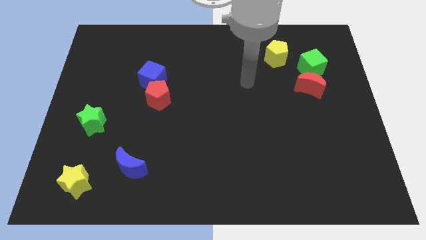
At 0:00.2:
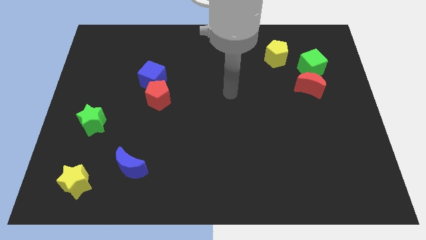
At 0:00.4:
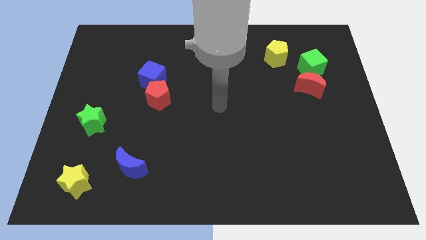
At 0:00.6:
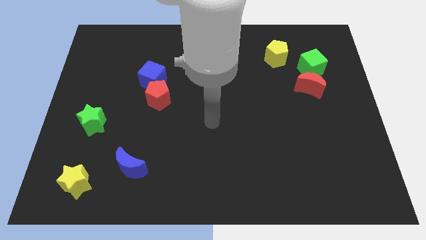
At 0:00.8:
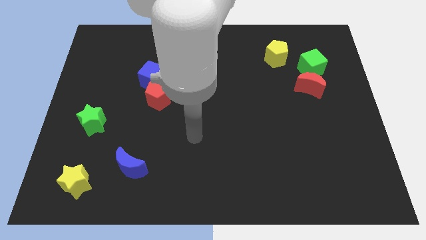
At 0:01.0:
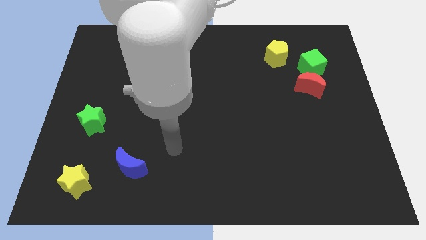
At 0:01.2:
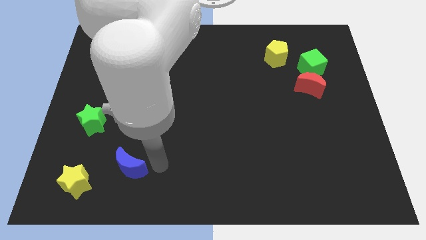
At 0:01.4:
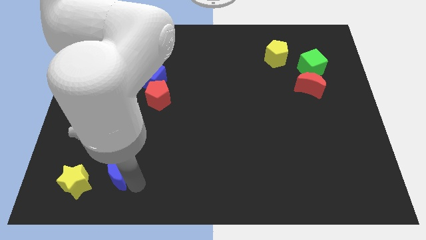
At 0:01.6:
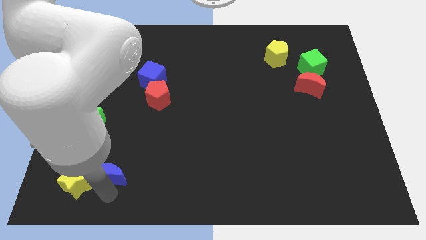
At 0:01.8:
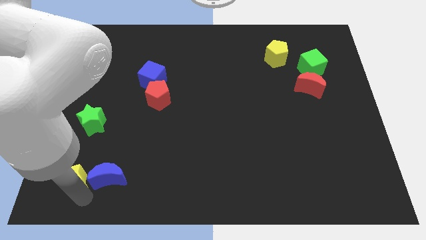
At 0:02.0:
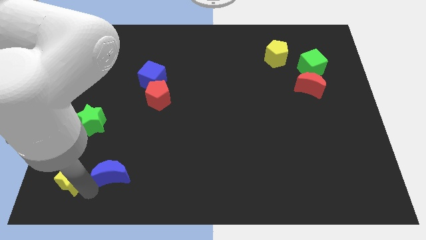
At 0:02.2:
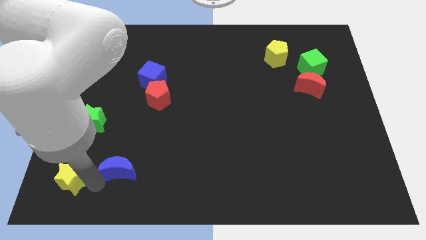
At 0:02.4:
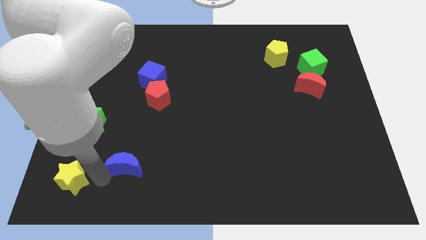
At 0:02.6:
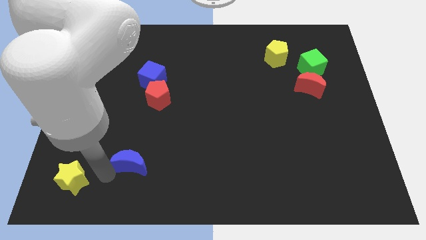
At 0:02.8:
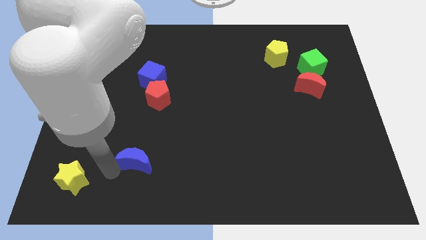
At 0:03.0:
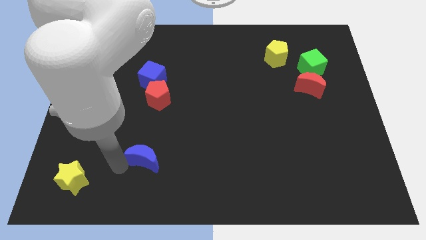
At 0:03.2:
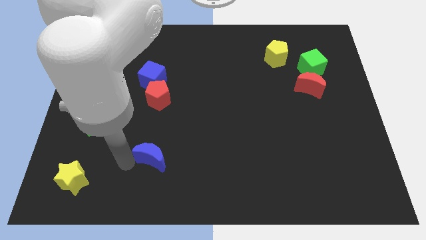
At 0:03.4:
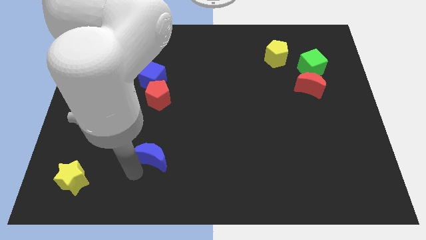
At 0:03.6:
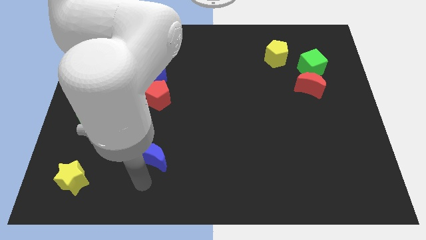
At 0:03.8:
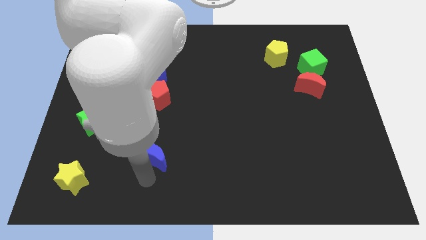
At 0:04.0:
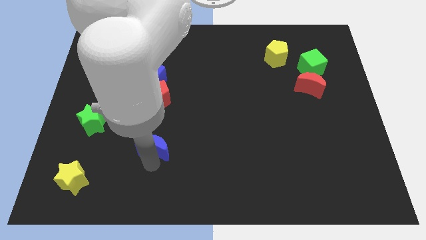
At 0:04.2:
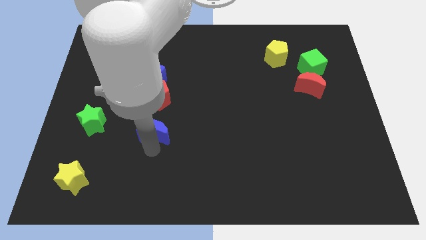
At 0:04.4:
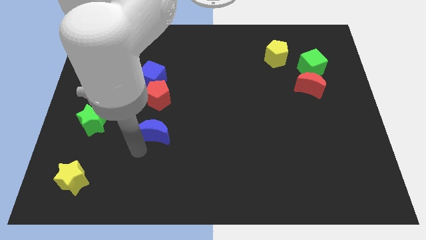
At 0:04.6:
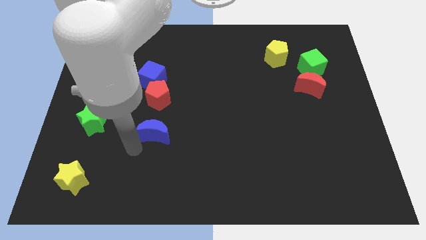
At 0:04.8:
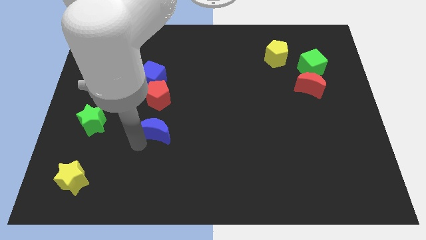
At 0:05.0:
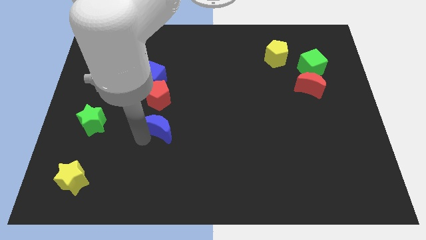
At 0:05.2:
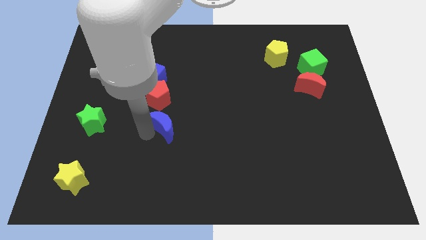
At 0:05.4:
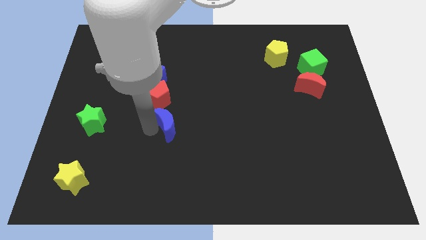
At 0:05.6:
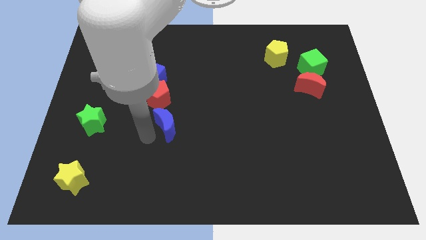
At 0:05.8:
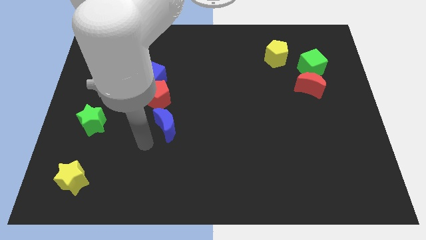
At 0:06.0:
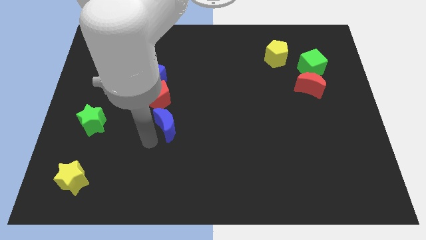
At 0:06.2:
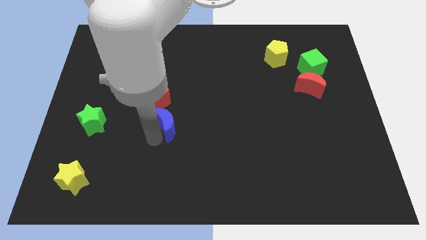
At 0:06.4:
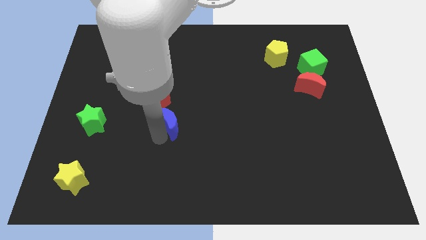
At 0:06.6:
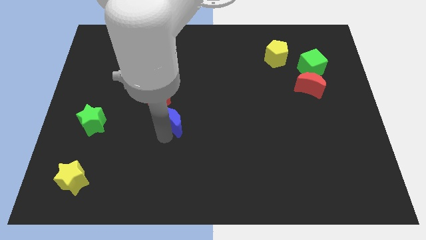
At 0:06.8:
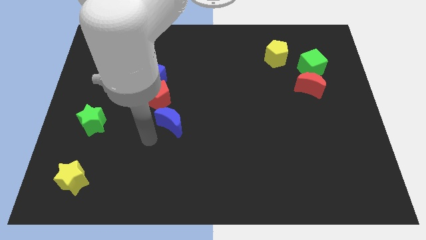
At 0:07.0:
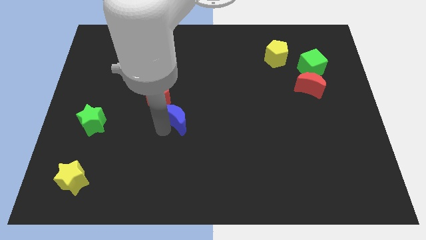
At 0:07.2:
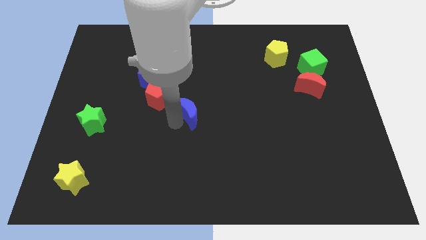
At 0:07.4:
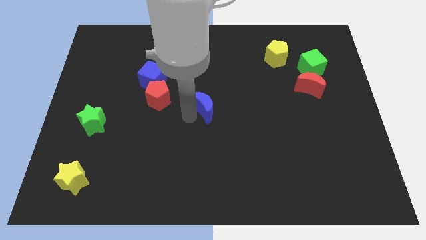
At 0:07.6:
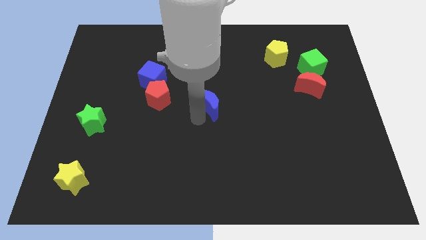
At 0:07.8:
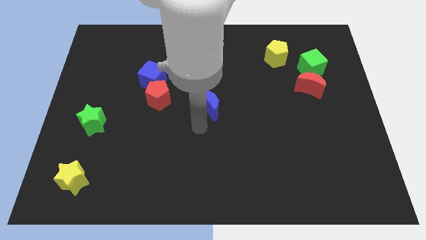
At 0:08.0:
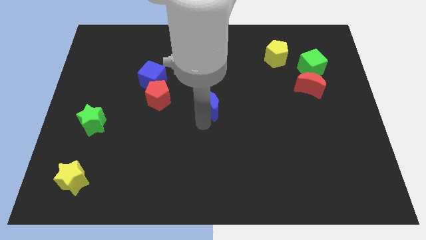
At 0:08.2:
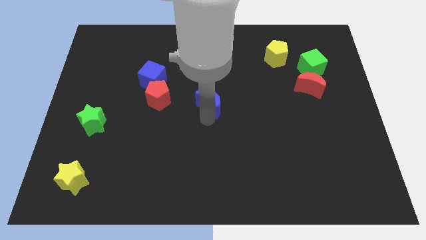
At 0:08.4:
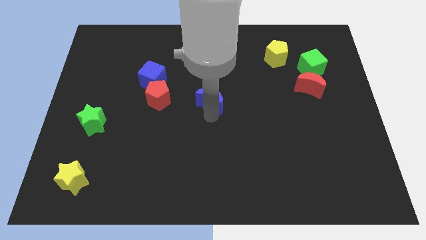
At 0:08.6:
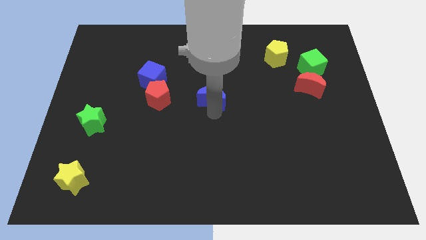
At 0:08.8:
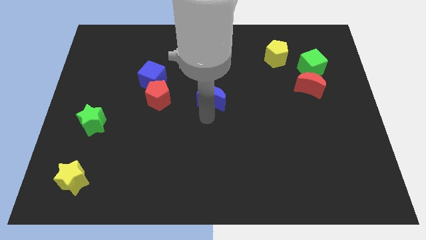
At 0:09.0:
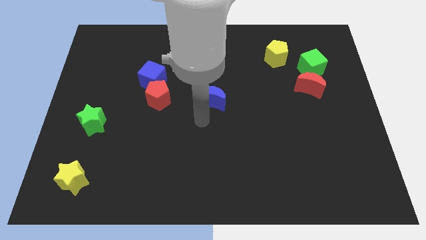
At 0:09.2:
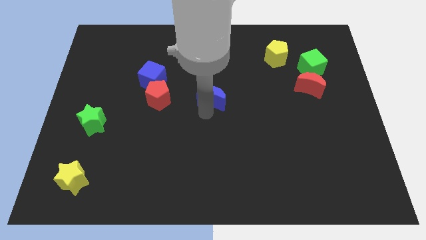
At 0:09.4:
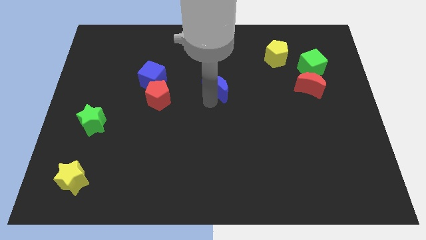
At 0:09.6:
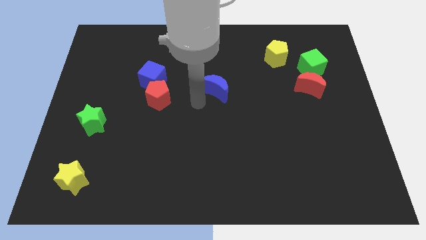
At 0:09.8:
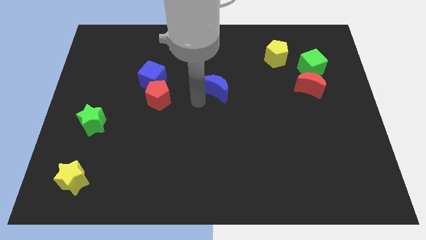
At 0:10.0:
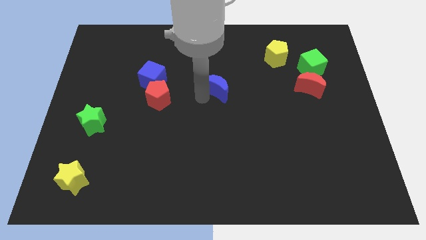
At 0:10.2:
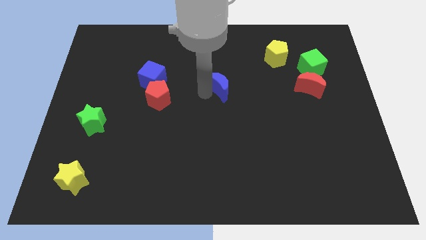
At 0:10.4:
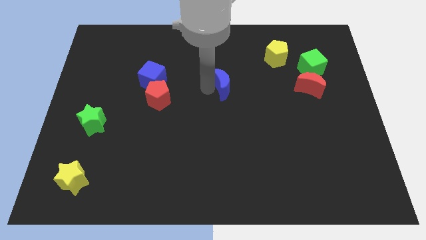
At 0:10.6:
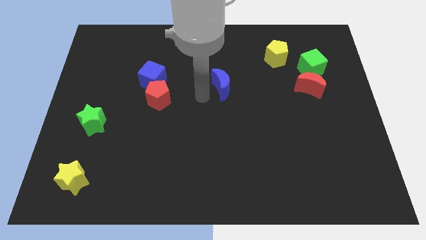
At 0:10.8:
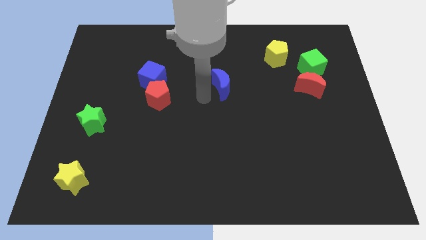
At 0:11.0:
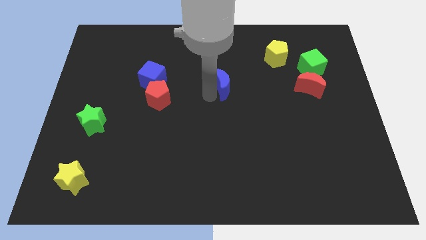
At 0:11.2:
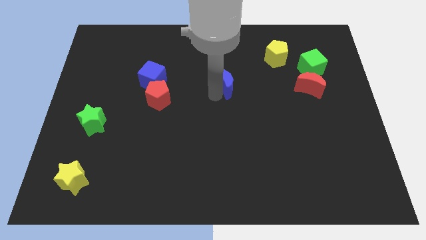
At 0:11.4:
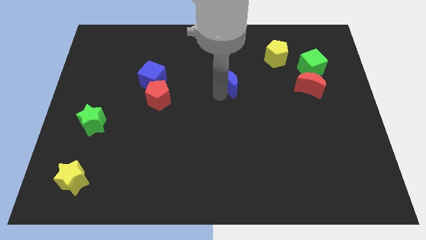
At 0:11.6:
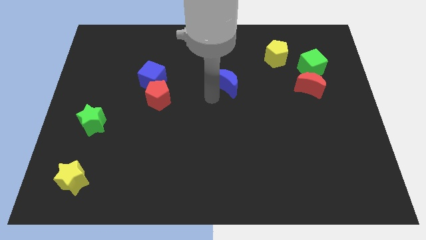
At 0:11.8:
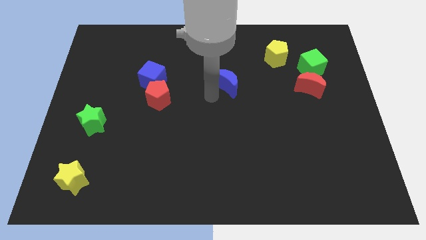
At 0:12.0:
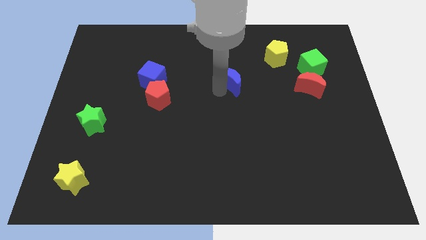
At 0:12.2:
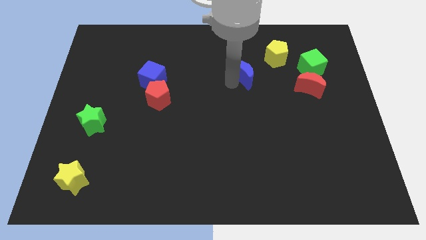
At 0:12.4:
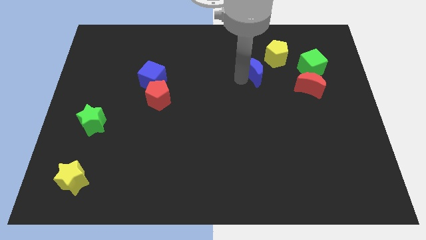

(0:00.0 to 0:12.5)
push the blue moon to the left side of the green cube

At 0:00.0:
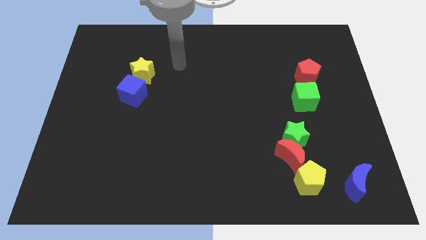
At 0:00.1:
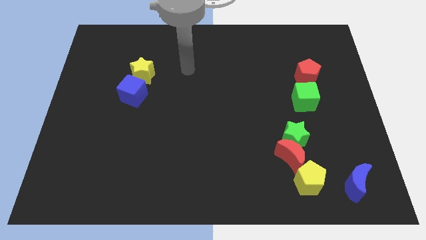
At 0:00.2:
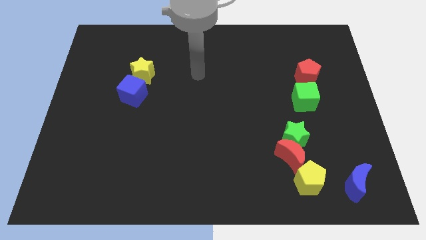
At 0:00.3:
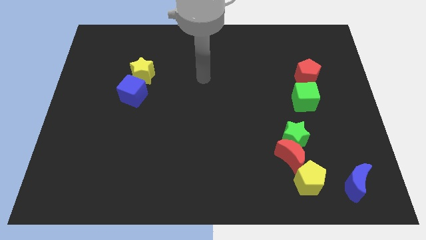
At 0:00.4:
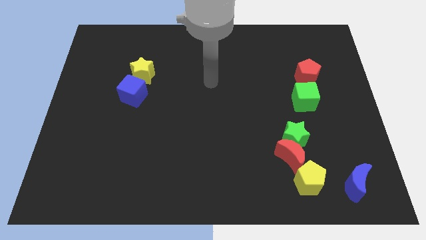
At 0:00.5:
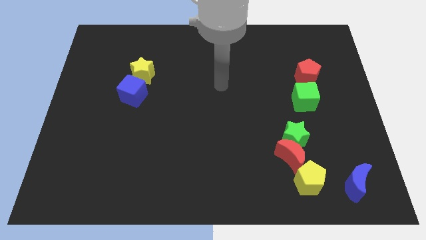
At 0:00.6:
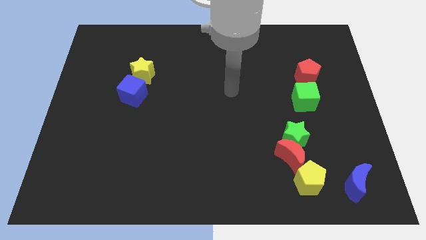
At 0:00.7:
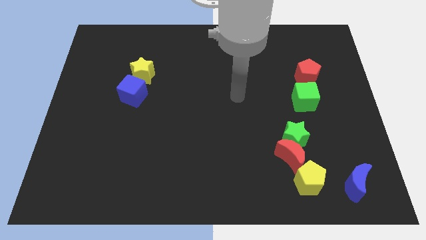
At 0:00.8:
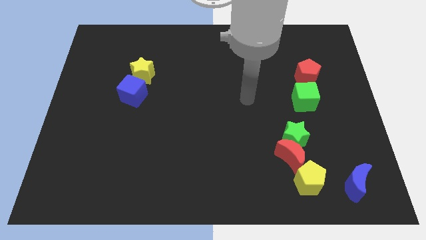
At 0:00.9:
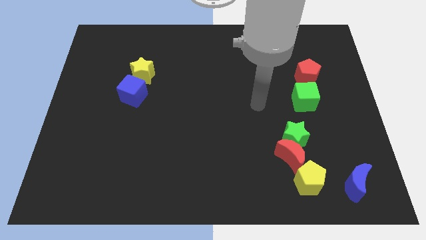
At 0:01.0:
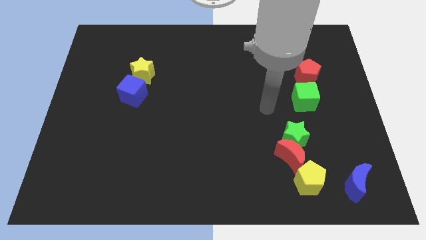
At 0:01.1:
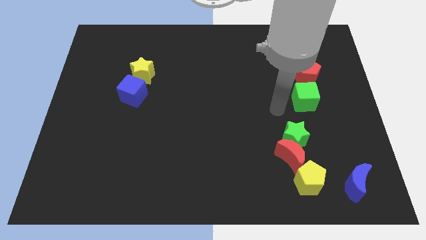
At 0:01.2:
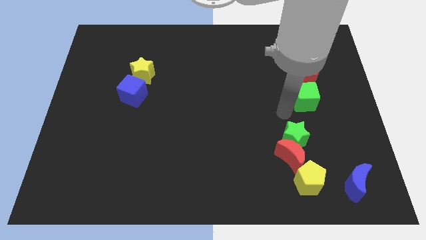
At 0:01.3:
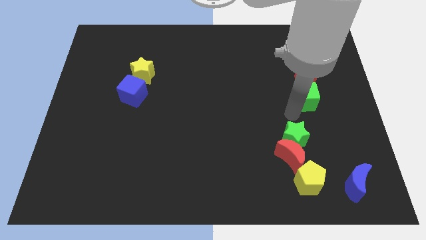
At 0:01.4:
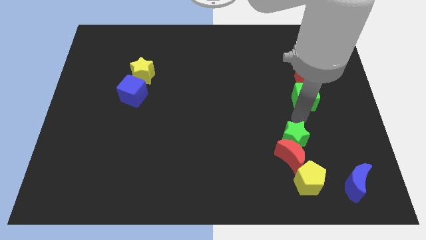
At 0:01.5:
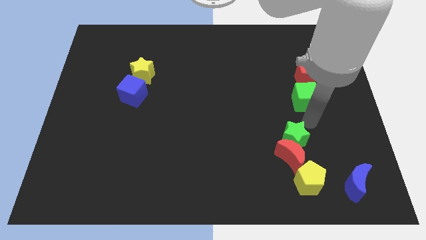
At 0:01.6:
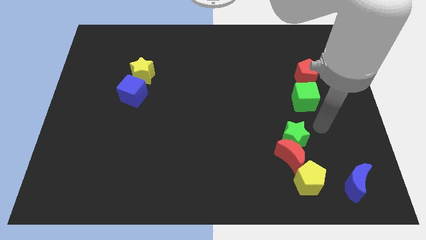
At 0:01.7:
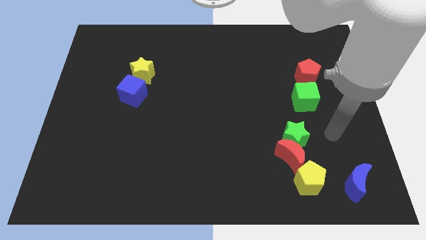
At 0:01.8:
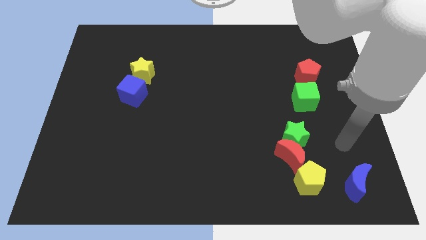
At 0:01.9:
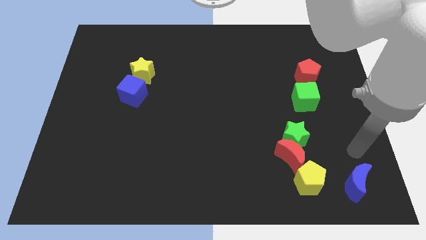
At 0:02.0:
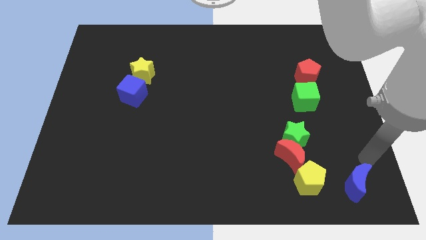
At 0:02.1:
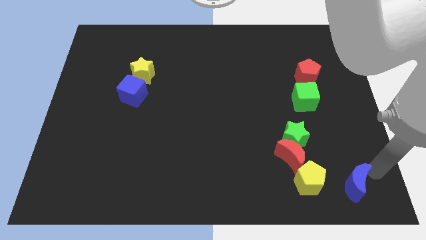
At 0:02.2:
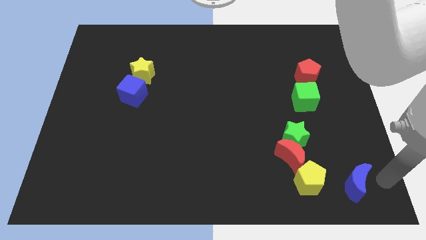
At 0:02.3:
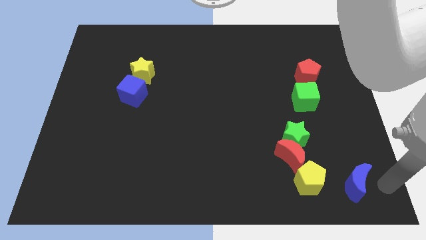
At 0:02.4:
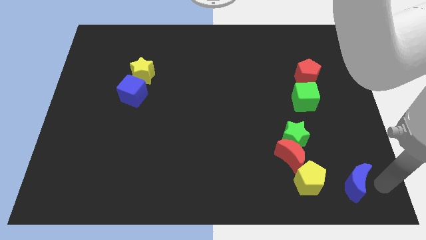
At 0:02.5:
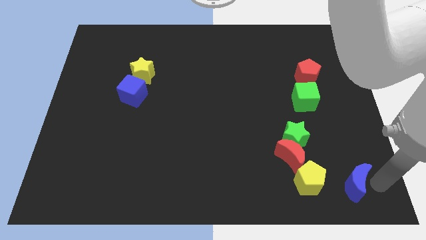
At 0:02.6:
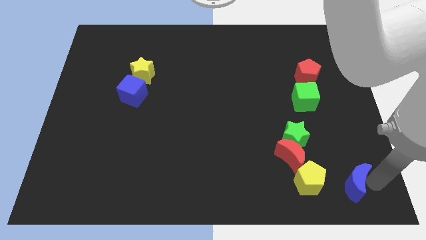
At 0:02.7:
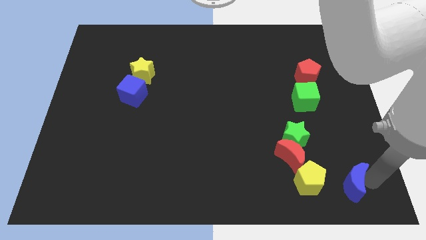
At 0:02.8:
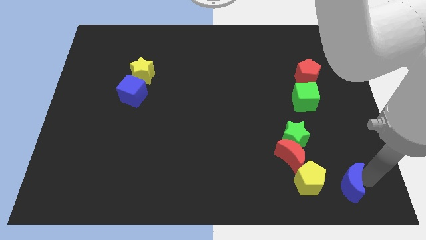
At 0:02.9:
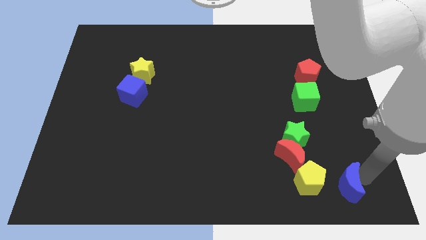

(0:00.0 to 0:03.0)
put the blue moon to the bottom right side of the red moon
